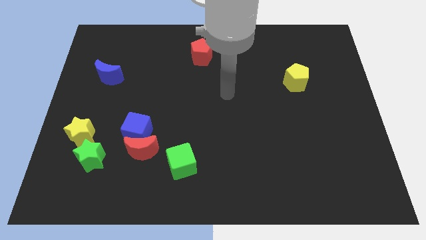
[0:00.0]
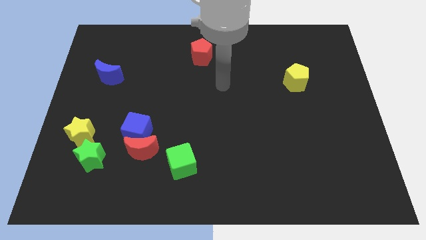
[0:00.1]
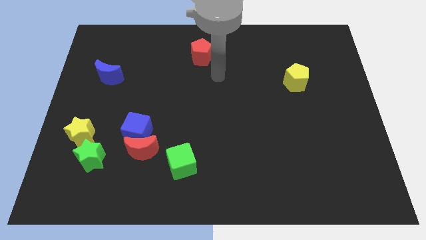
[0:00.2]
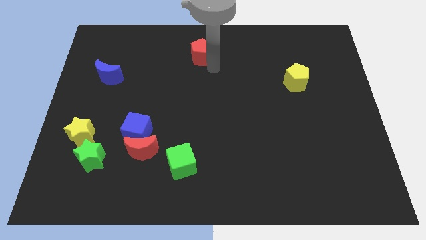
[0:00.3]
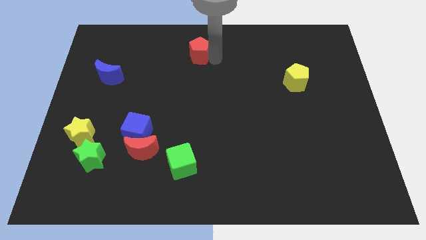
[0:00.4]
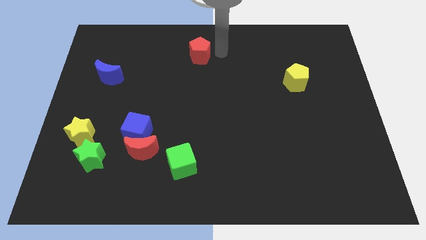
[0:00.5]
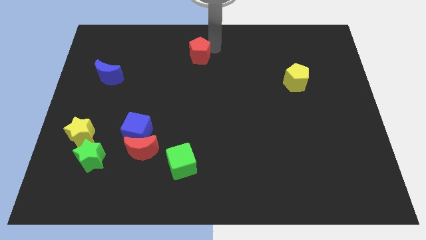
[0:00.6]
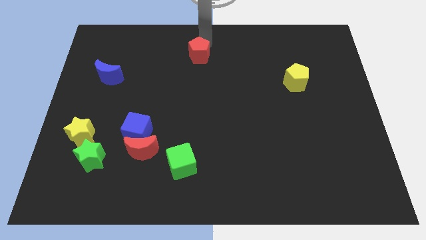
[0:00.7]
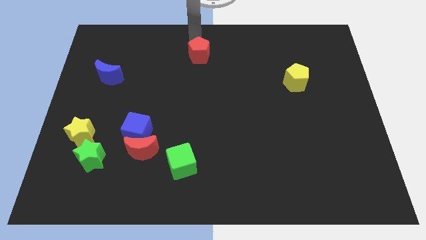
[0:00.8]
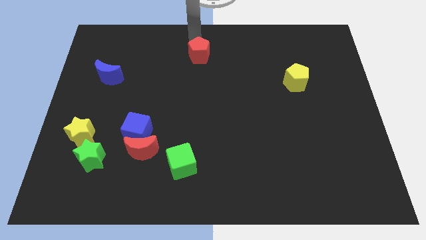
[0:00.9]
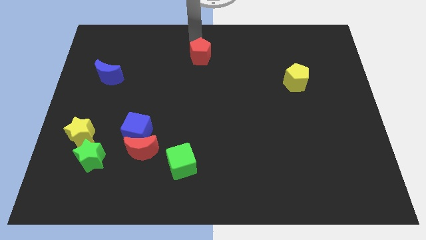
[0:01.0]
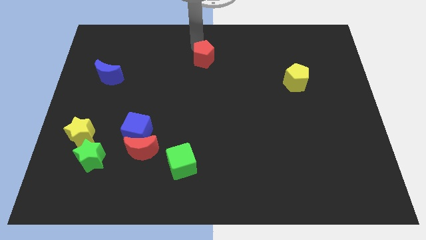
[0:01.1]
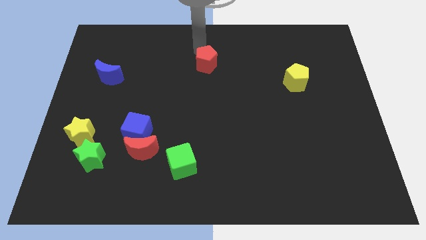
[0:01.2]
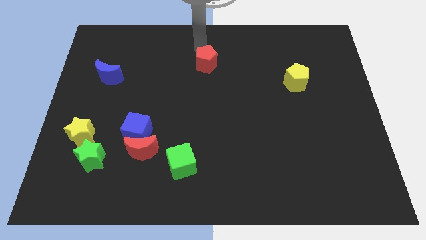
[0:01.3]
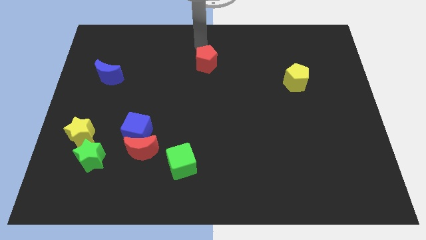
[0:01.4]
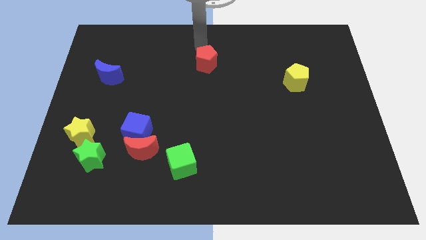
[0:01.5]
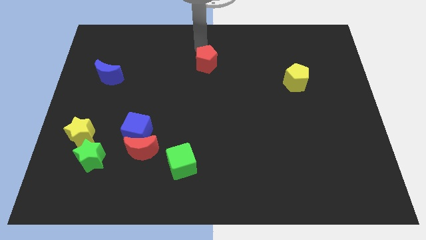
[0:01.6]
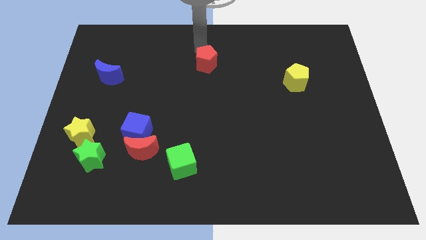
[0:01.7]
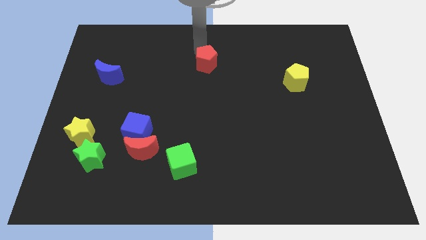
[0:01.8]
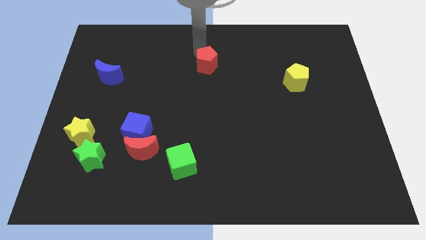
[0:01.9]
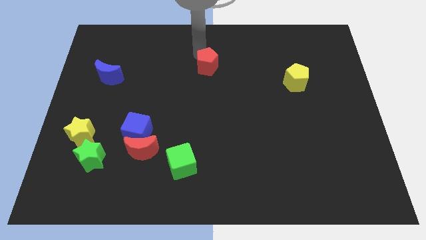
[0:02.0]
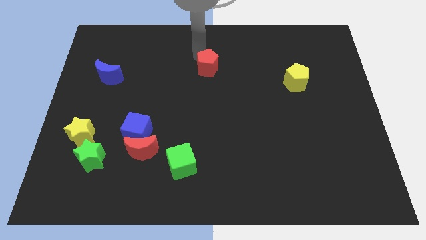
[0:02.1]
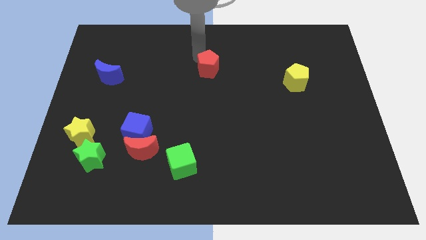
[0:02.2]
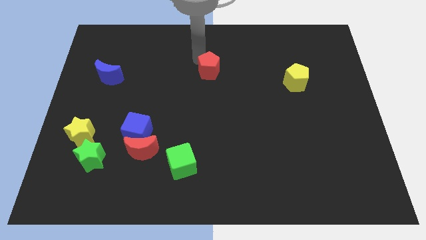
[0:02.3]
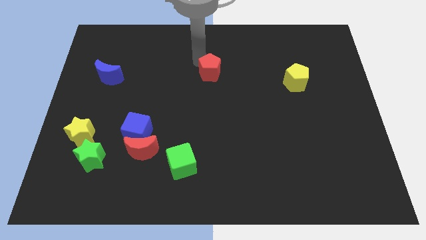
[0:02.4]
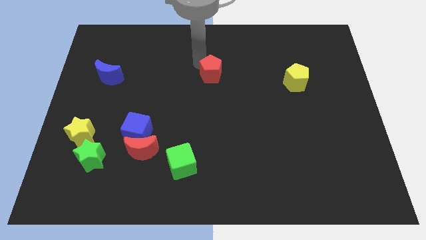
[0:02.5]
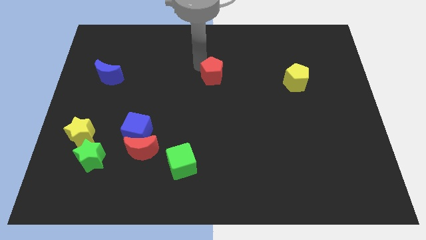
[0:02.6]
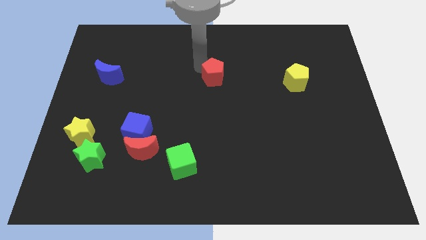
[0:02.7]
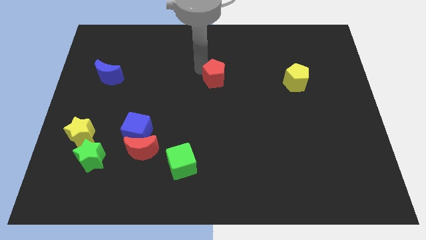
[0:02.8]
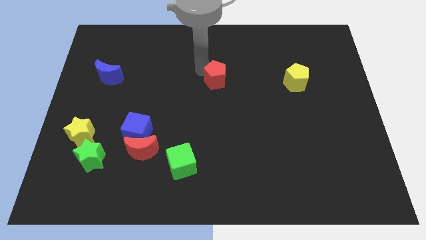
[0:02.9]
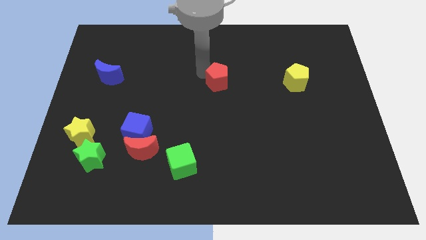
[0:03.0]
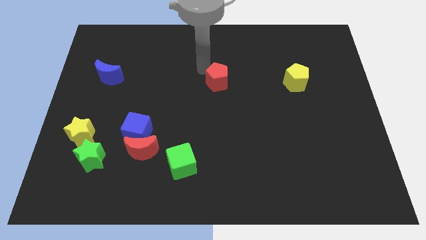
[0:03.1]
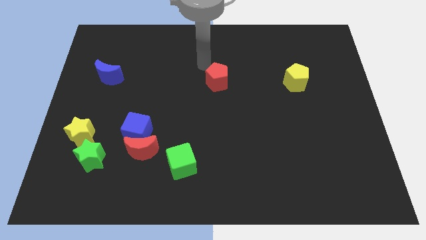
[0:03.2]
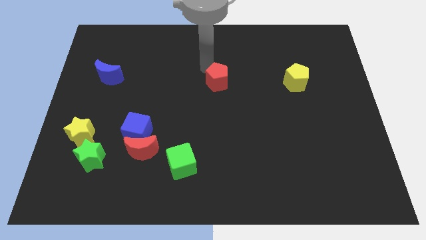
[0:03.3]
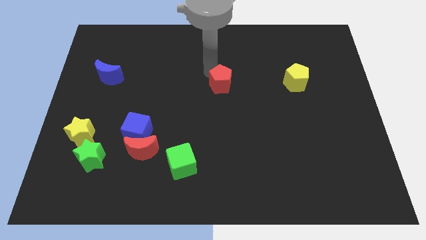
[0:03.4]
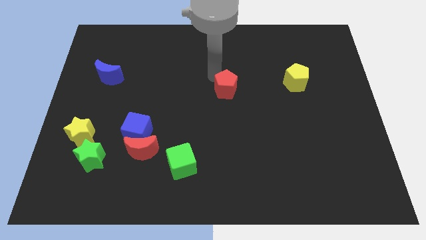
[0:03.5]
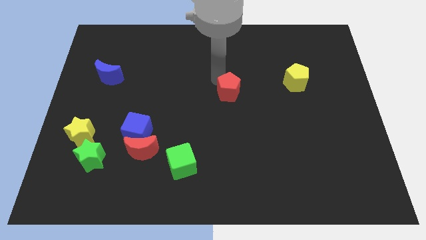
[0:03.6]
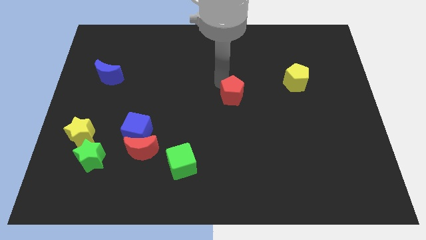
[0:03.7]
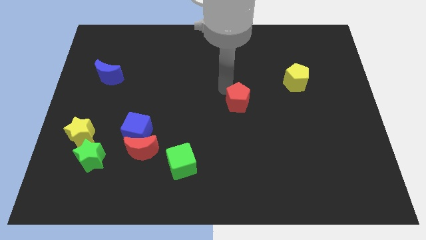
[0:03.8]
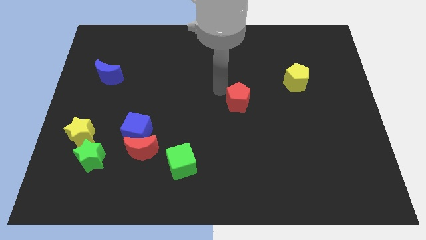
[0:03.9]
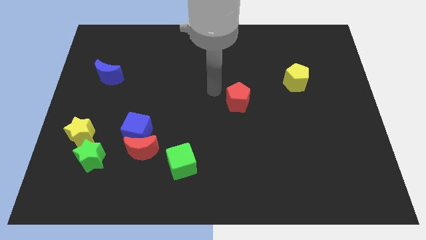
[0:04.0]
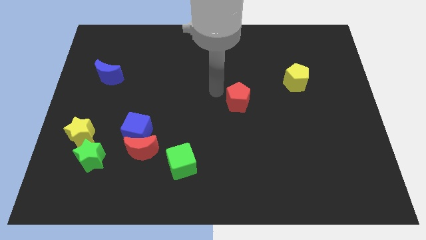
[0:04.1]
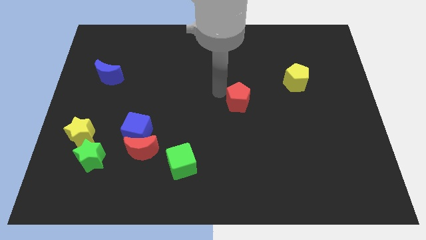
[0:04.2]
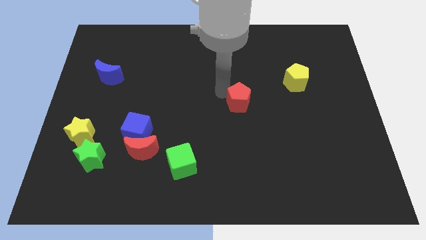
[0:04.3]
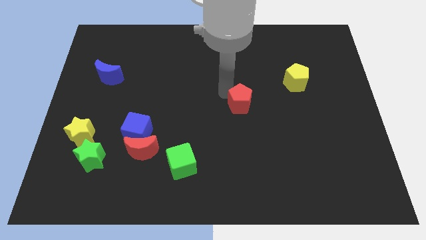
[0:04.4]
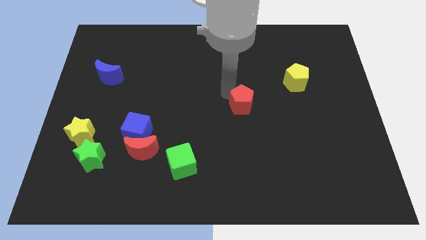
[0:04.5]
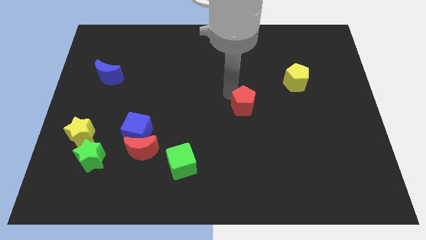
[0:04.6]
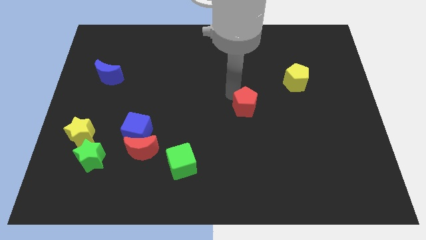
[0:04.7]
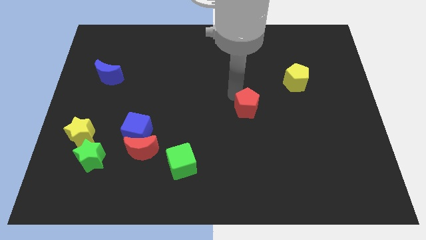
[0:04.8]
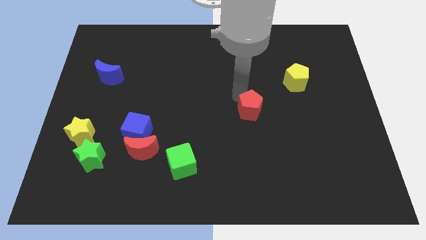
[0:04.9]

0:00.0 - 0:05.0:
move the red pentagon down and right

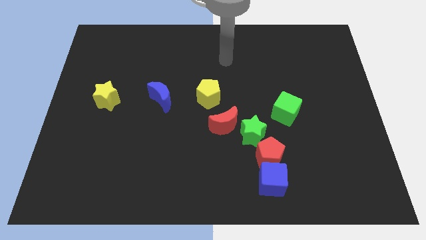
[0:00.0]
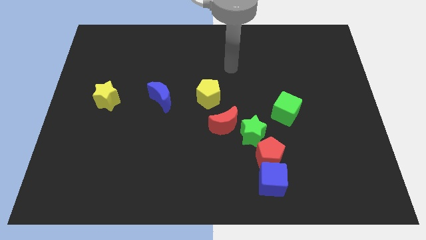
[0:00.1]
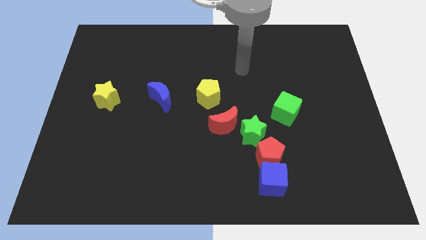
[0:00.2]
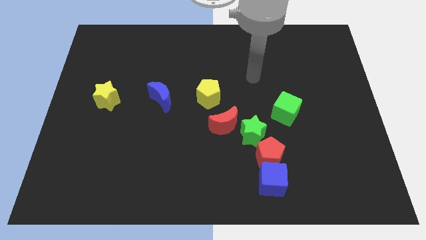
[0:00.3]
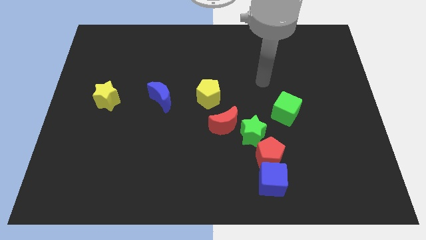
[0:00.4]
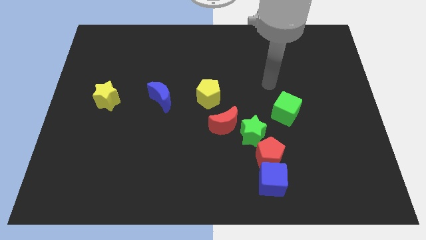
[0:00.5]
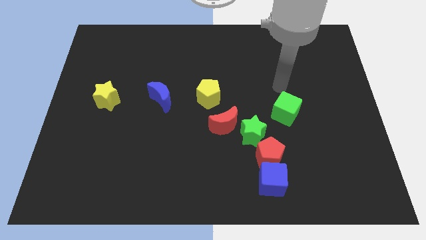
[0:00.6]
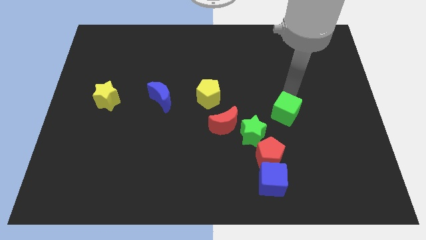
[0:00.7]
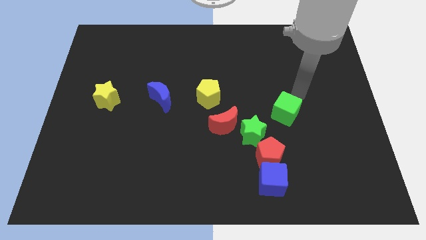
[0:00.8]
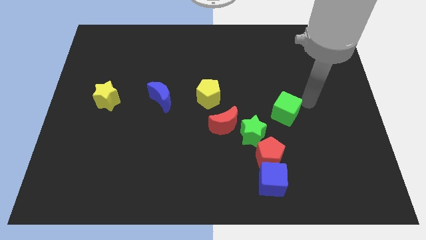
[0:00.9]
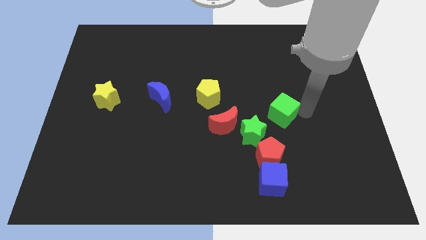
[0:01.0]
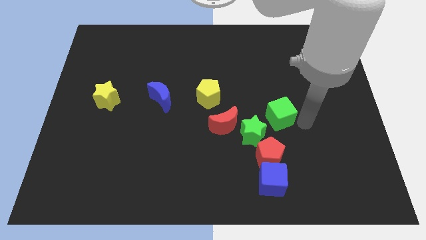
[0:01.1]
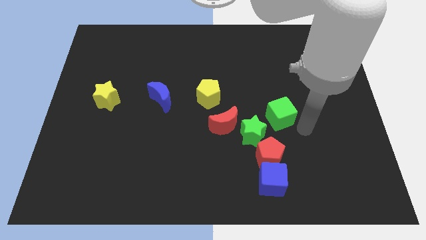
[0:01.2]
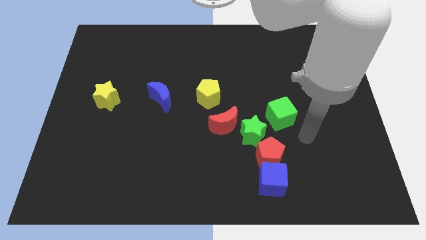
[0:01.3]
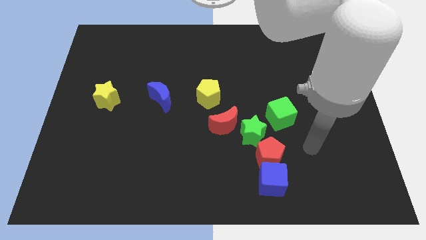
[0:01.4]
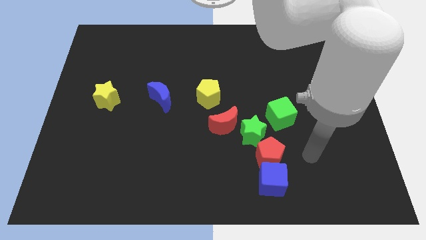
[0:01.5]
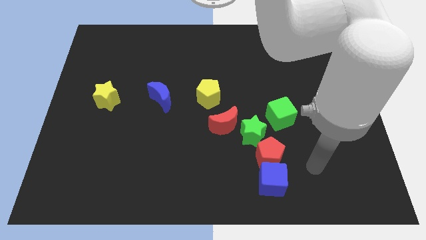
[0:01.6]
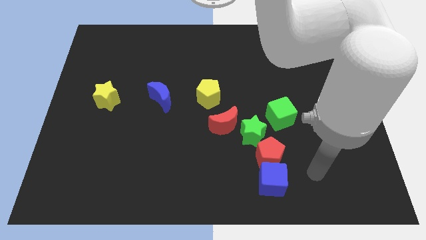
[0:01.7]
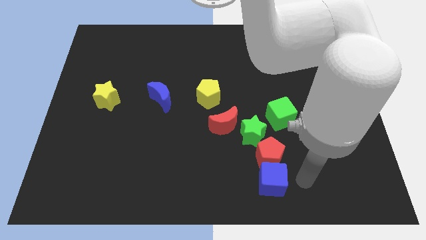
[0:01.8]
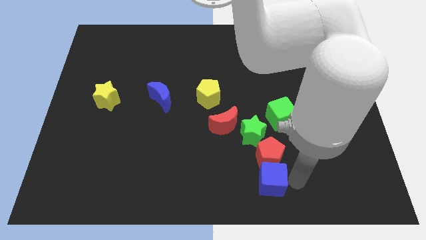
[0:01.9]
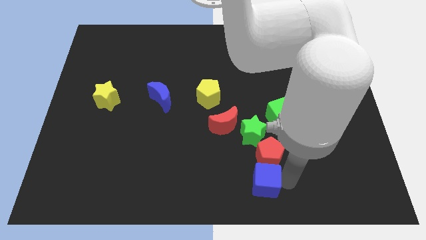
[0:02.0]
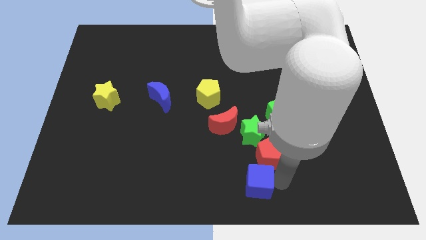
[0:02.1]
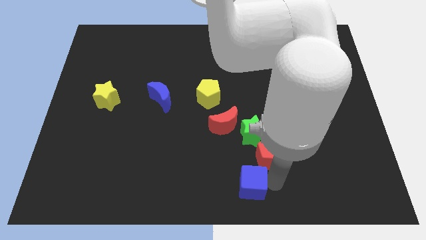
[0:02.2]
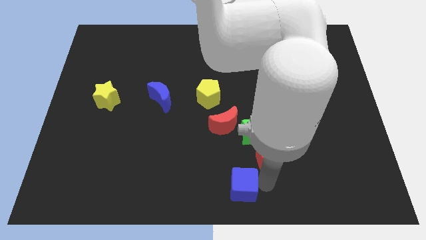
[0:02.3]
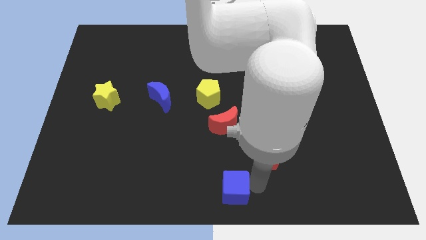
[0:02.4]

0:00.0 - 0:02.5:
slide the blue cube a little bit left
